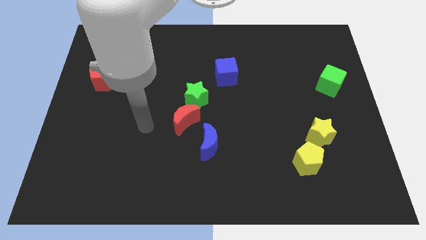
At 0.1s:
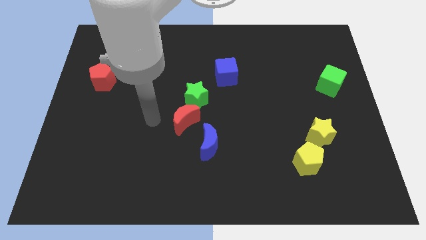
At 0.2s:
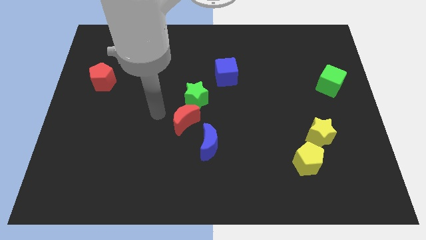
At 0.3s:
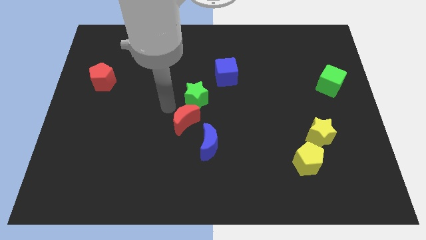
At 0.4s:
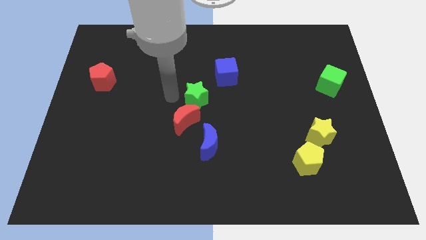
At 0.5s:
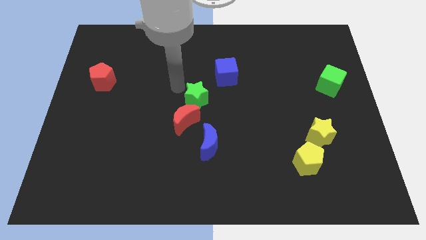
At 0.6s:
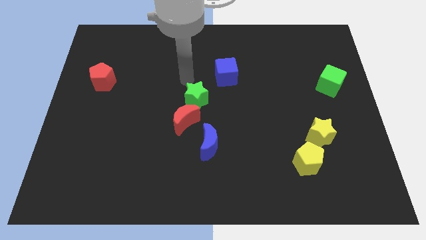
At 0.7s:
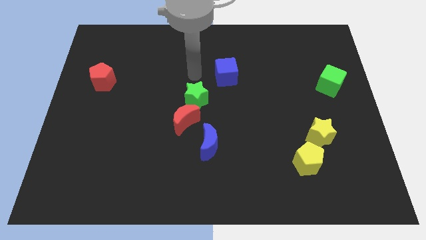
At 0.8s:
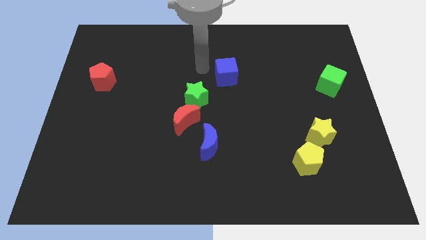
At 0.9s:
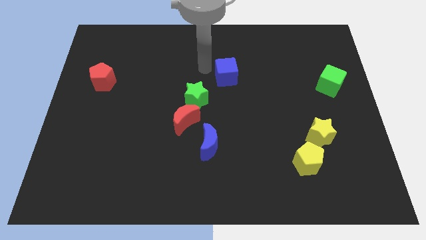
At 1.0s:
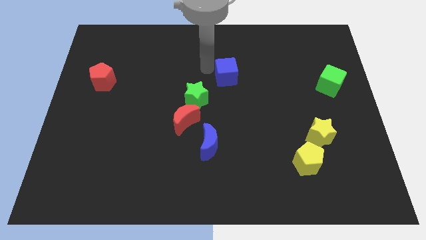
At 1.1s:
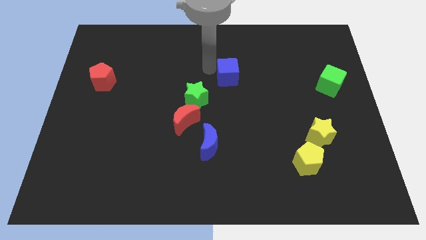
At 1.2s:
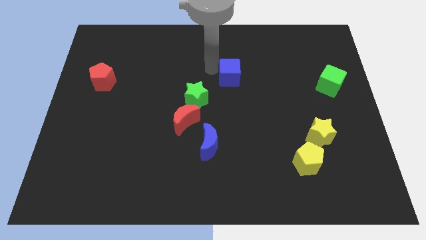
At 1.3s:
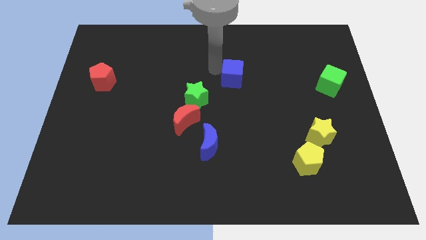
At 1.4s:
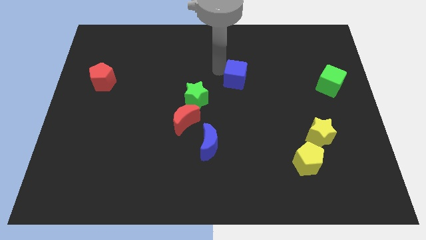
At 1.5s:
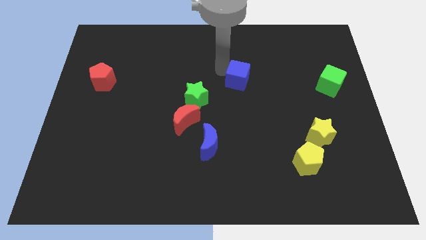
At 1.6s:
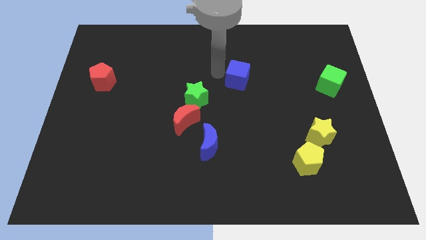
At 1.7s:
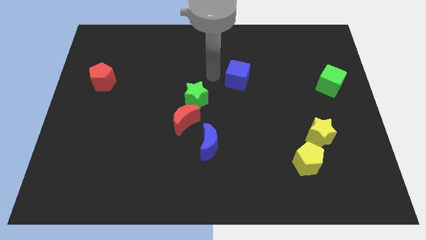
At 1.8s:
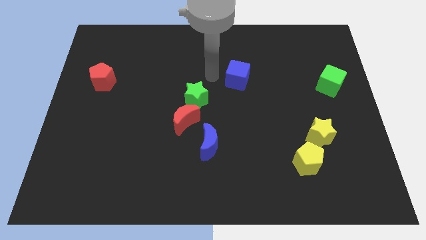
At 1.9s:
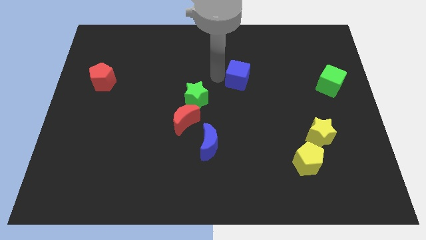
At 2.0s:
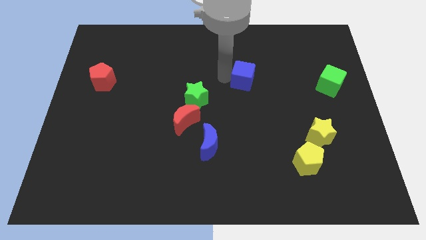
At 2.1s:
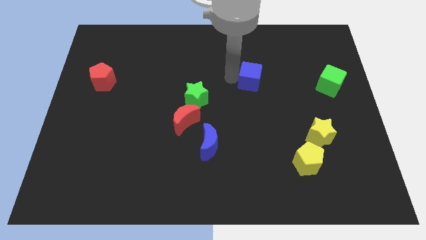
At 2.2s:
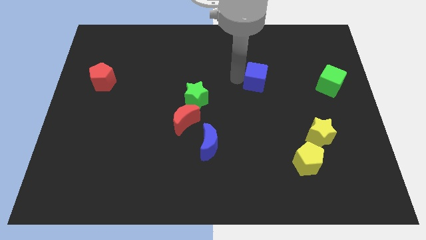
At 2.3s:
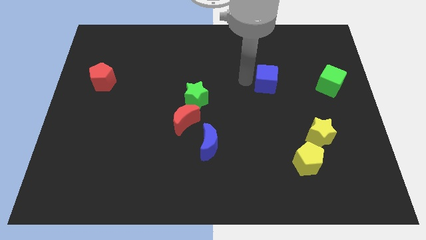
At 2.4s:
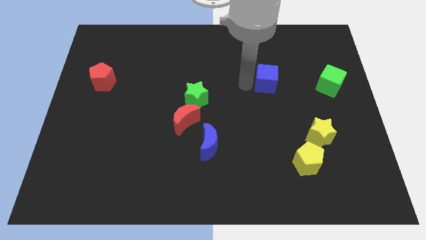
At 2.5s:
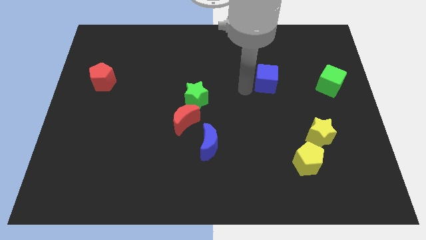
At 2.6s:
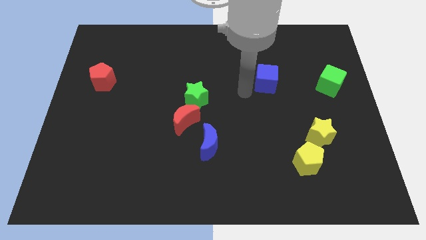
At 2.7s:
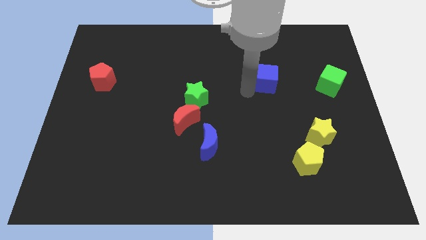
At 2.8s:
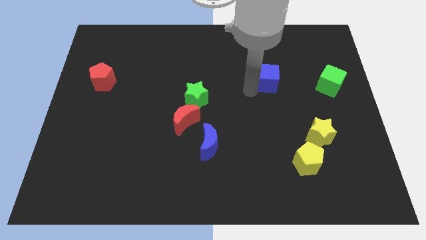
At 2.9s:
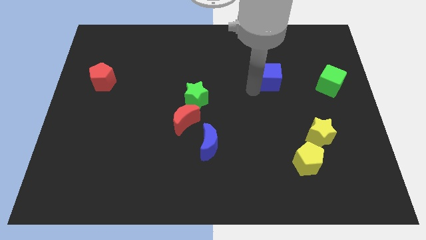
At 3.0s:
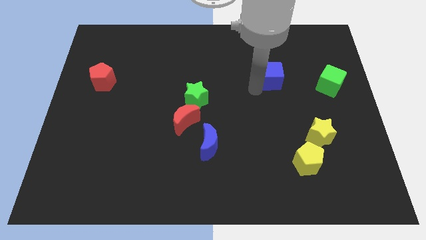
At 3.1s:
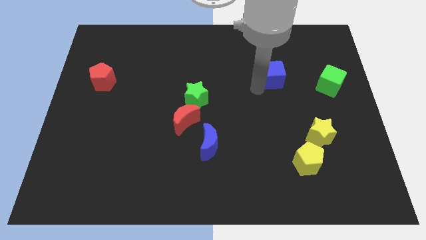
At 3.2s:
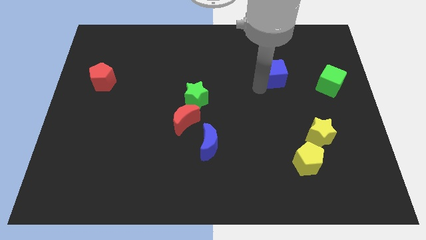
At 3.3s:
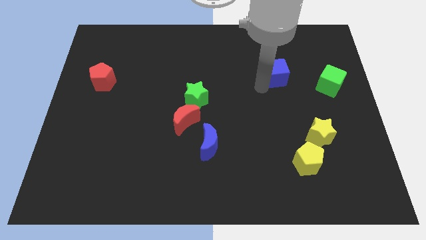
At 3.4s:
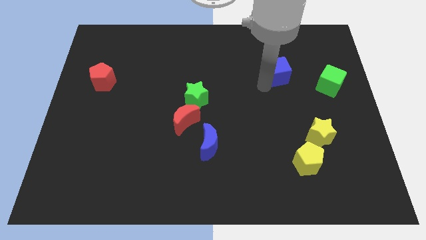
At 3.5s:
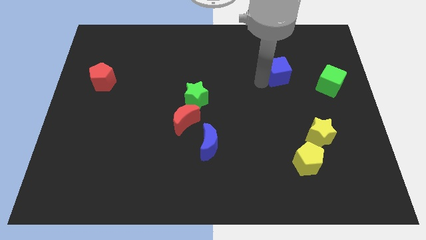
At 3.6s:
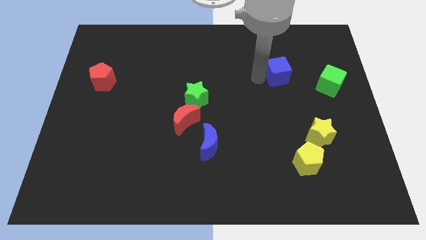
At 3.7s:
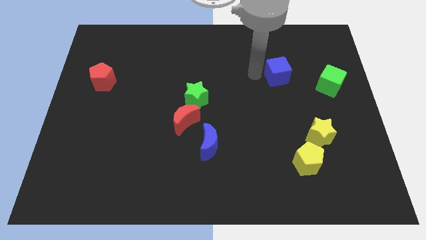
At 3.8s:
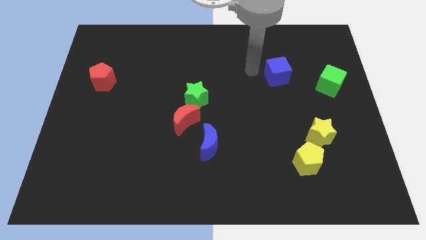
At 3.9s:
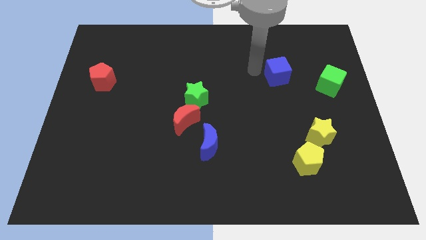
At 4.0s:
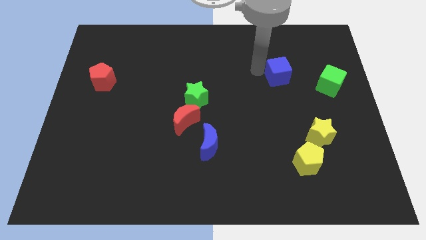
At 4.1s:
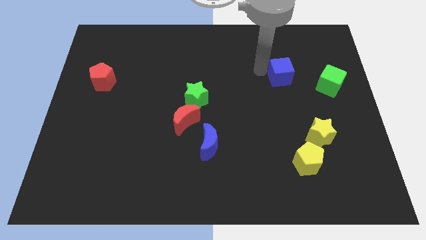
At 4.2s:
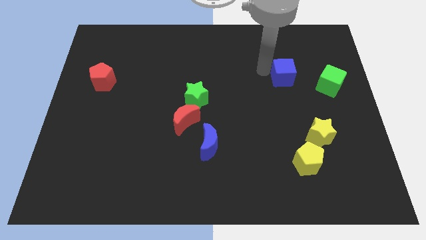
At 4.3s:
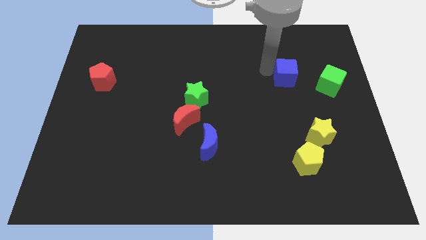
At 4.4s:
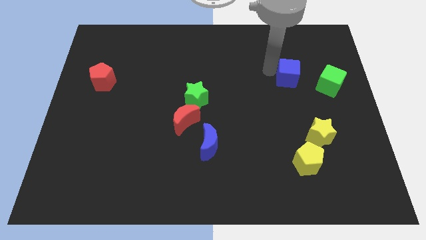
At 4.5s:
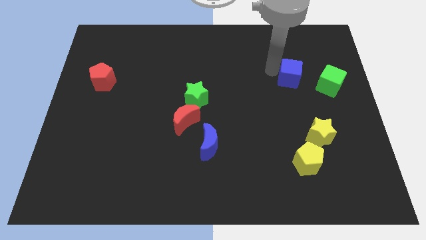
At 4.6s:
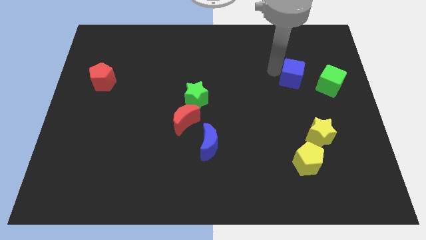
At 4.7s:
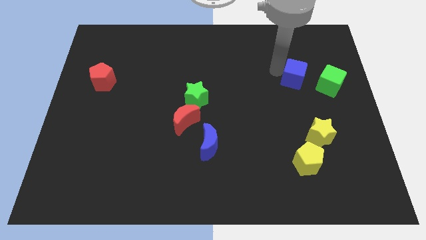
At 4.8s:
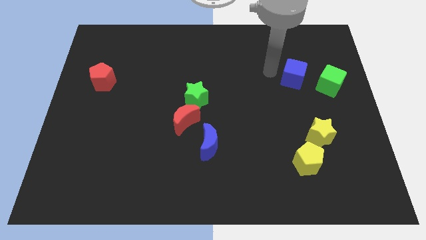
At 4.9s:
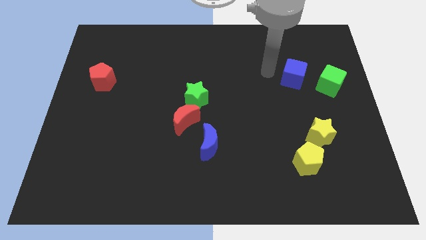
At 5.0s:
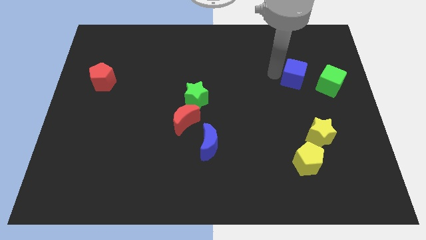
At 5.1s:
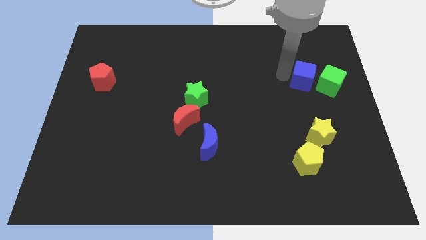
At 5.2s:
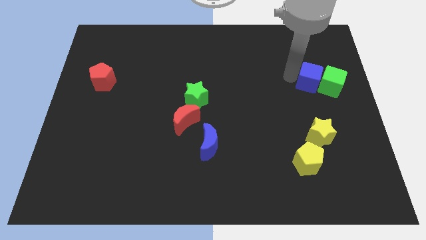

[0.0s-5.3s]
slide the blue cube to the green cube
